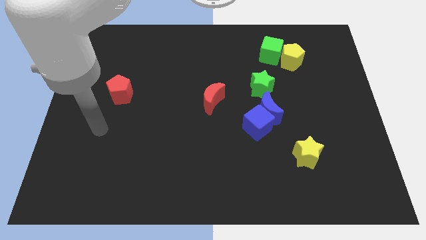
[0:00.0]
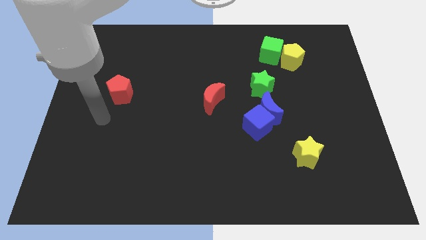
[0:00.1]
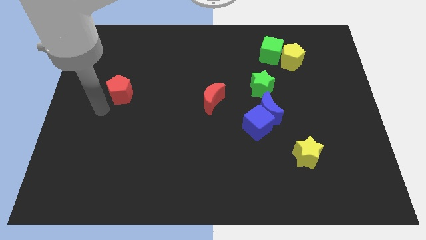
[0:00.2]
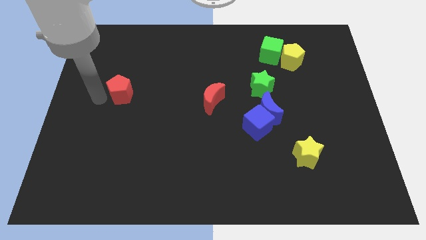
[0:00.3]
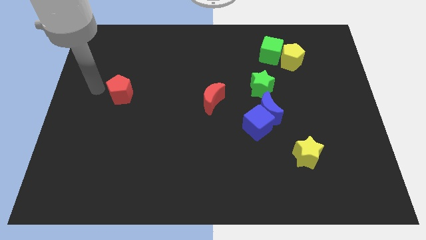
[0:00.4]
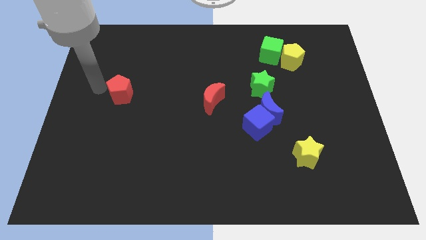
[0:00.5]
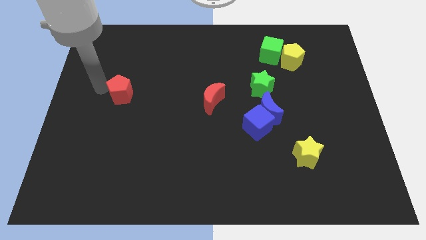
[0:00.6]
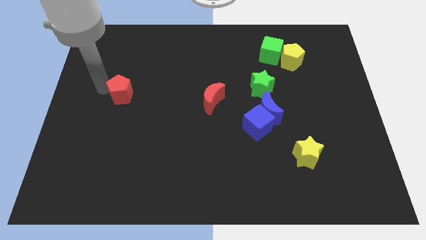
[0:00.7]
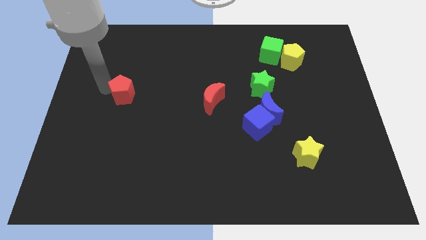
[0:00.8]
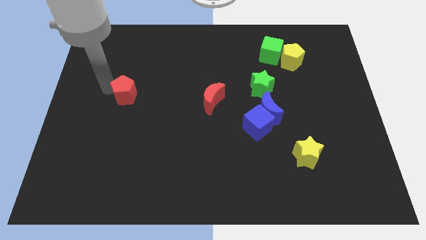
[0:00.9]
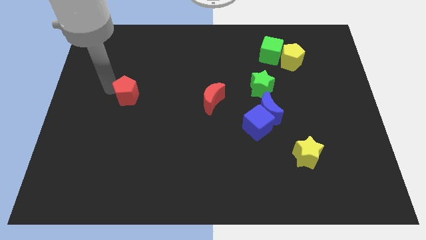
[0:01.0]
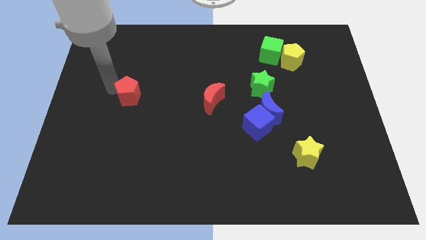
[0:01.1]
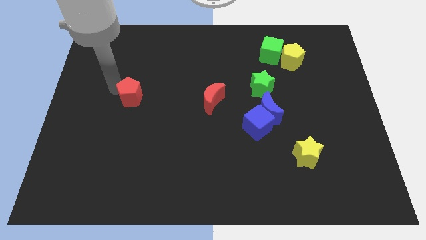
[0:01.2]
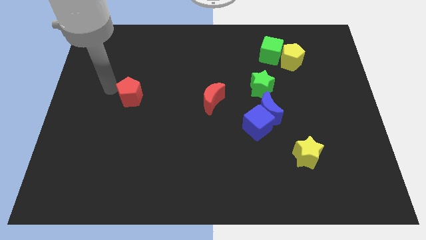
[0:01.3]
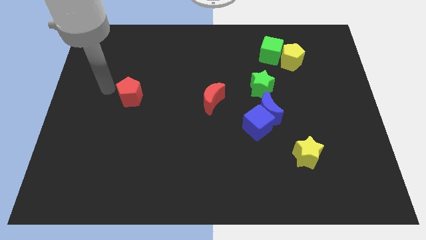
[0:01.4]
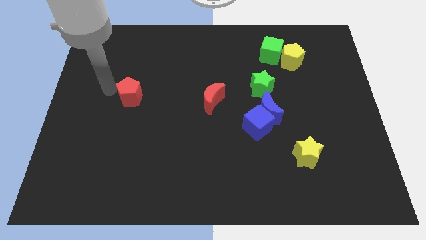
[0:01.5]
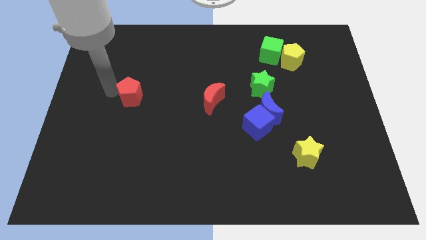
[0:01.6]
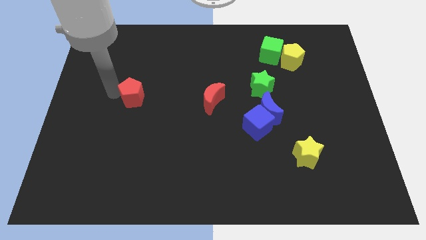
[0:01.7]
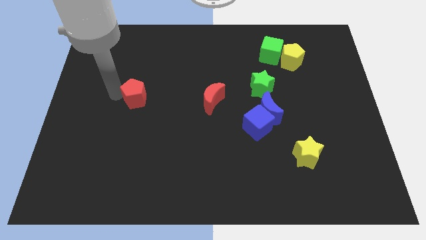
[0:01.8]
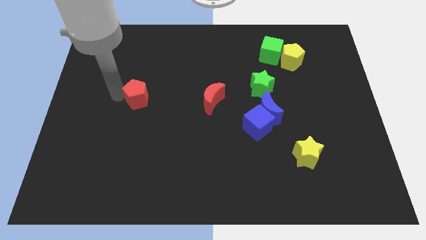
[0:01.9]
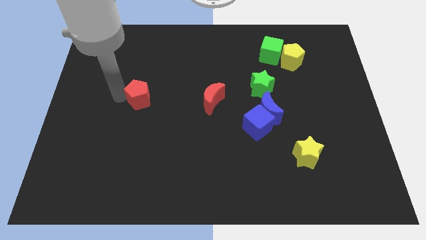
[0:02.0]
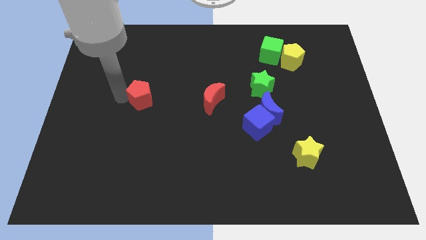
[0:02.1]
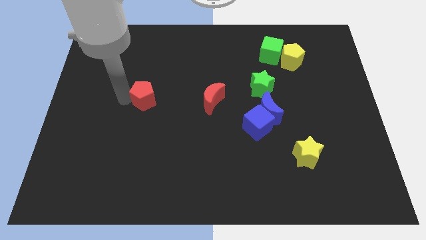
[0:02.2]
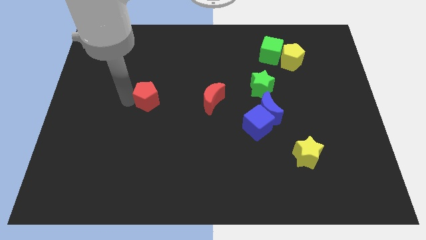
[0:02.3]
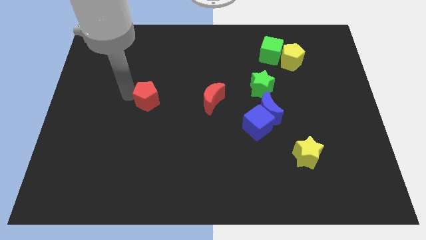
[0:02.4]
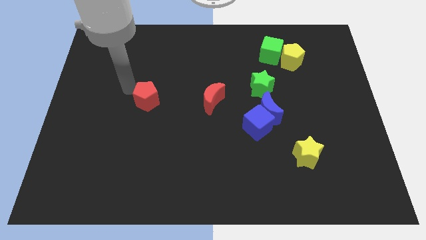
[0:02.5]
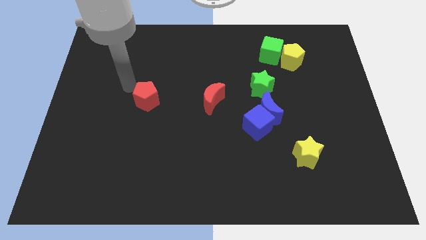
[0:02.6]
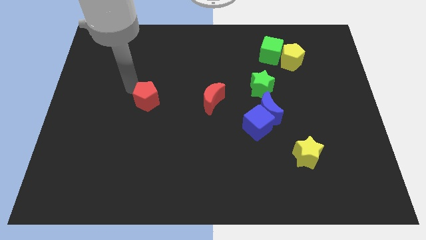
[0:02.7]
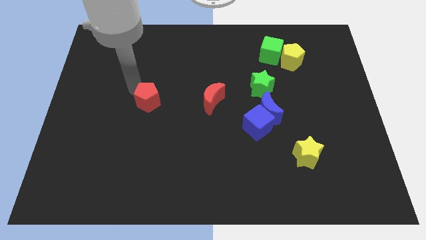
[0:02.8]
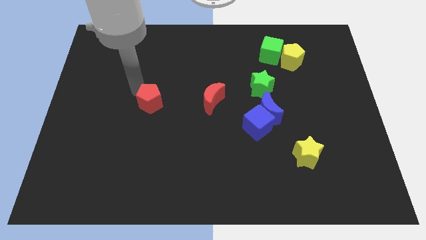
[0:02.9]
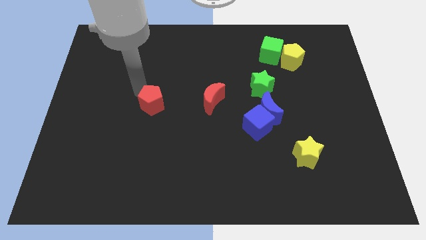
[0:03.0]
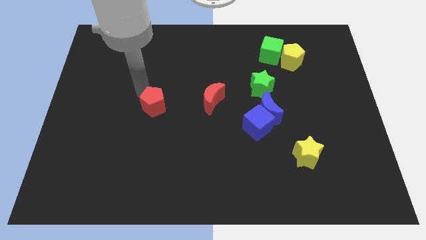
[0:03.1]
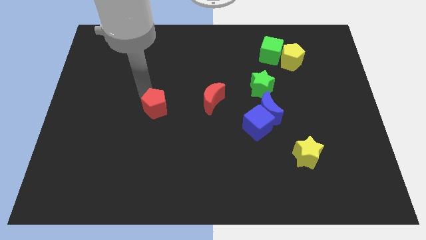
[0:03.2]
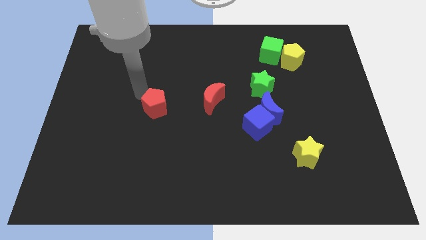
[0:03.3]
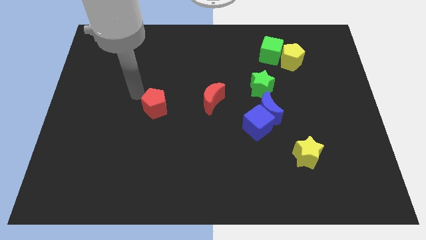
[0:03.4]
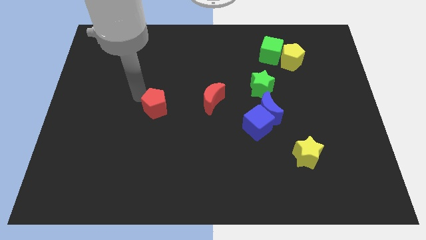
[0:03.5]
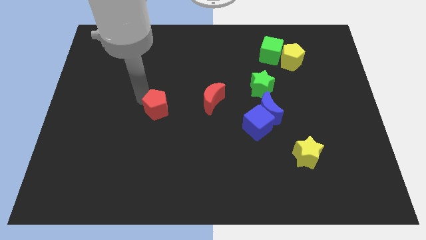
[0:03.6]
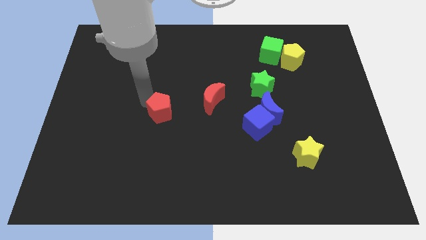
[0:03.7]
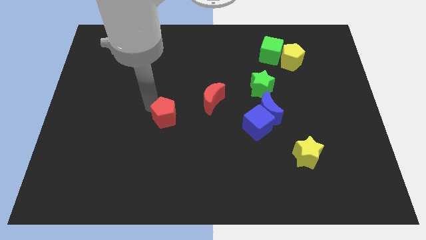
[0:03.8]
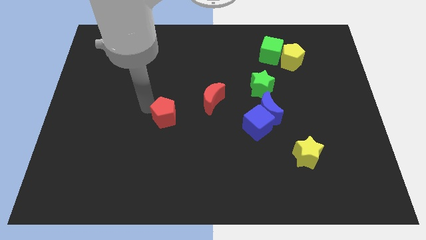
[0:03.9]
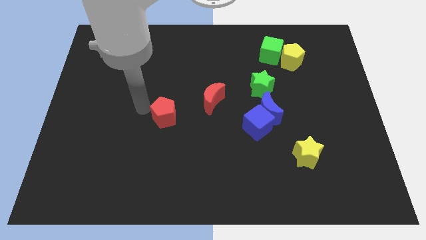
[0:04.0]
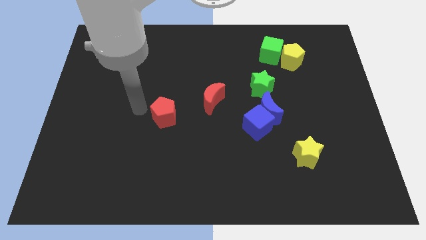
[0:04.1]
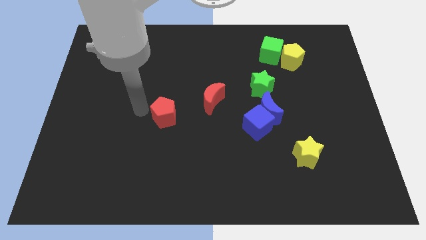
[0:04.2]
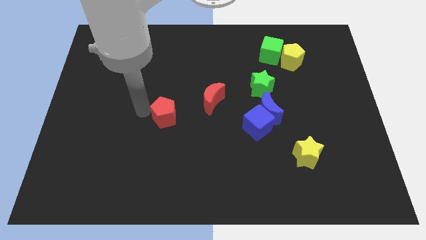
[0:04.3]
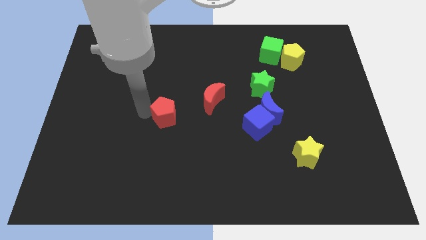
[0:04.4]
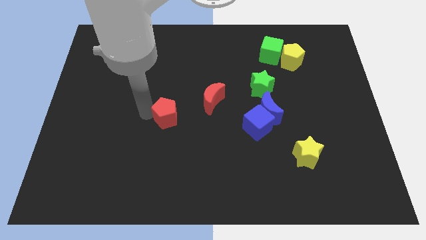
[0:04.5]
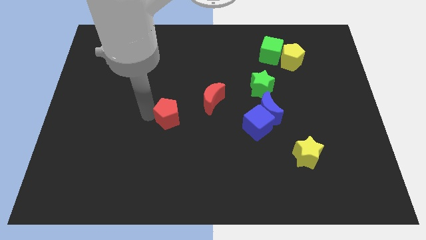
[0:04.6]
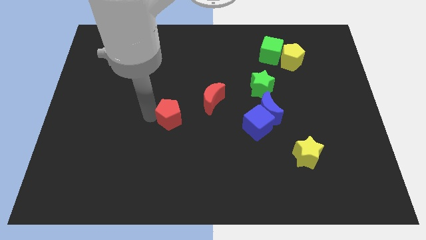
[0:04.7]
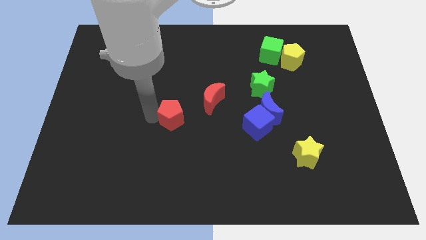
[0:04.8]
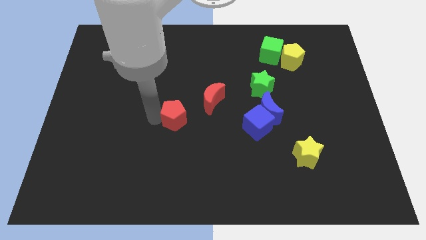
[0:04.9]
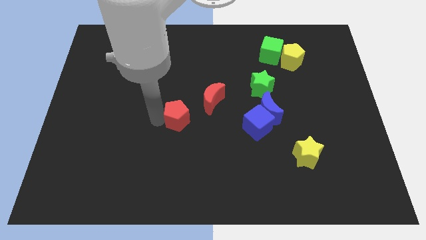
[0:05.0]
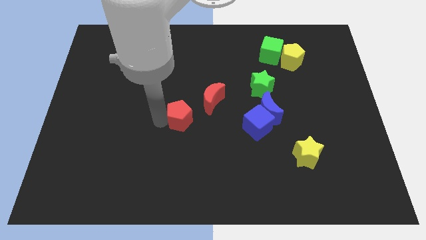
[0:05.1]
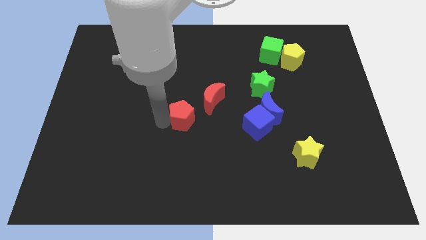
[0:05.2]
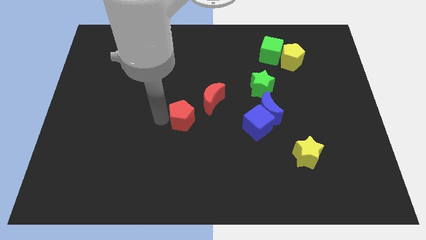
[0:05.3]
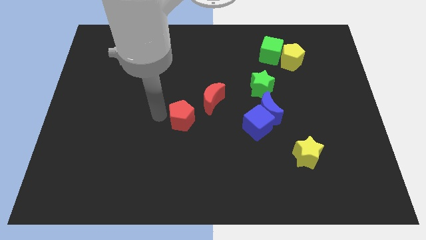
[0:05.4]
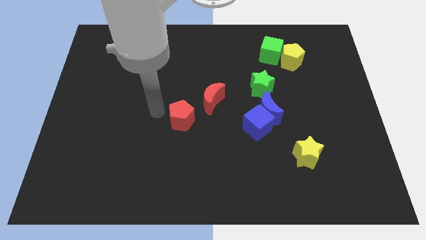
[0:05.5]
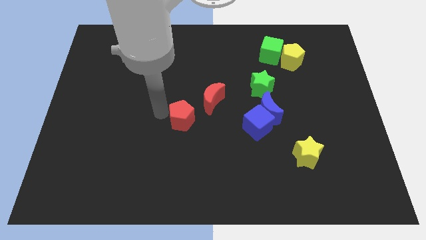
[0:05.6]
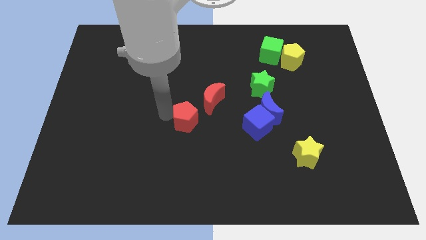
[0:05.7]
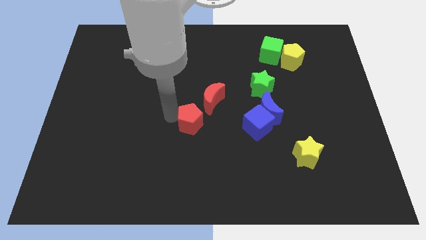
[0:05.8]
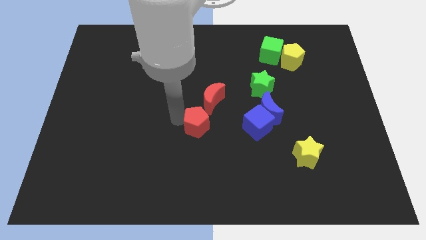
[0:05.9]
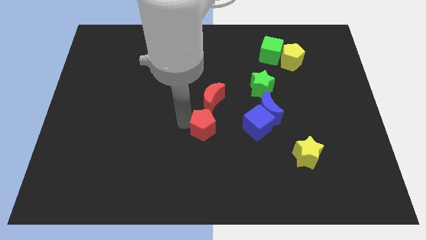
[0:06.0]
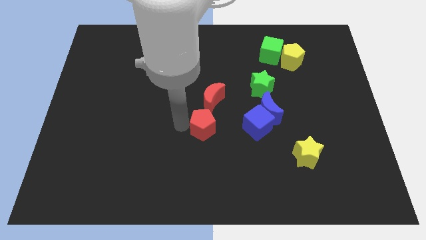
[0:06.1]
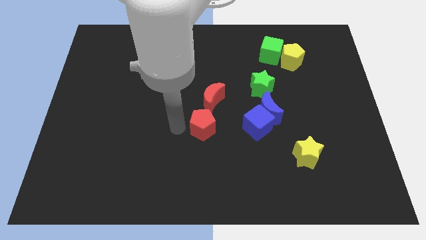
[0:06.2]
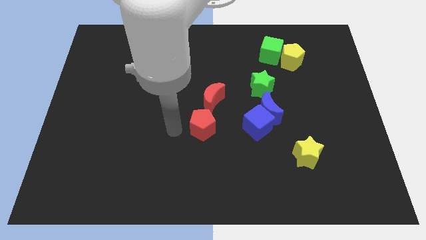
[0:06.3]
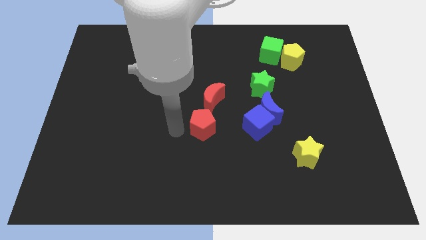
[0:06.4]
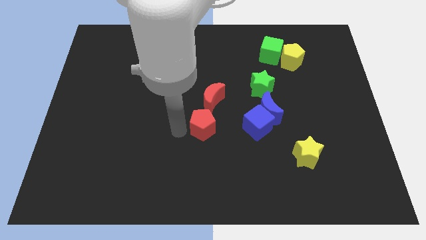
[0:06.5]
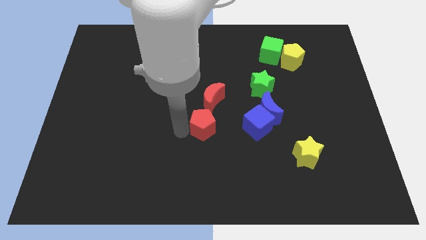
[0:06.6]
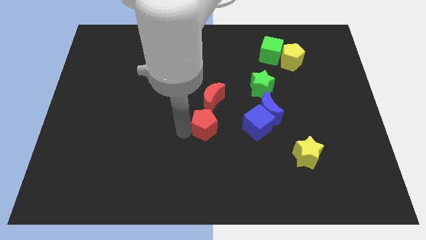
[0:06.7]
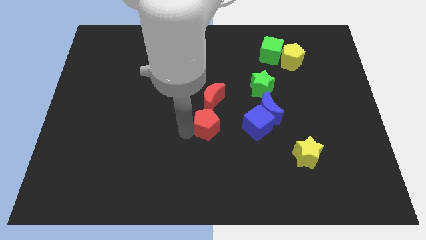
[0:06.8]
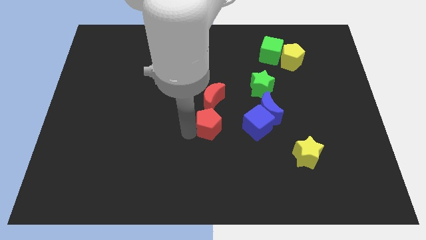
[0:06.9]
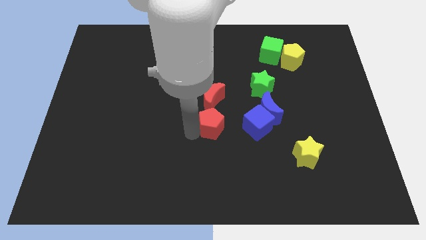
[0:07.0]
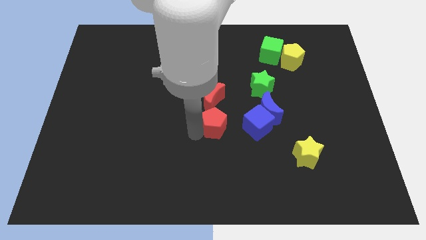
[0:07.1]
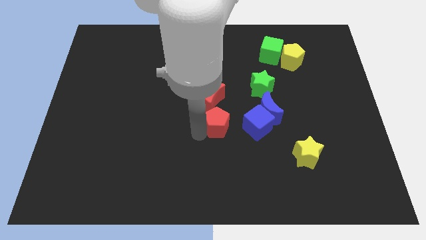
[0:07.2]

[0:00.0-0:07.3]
put the red pentagon diagonally down and to the right of the red moon
